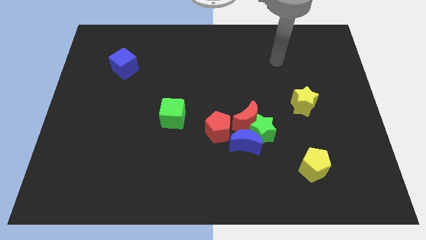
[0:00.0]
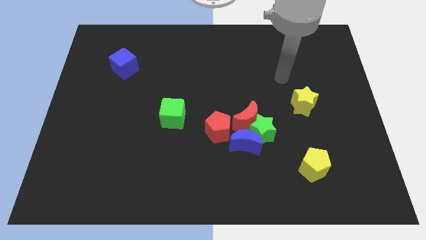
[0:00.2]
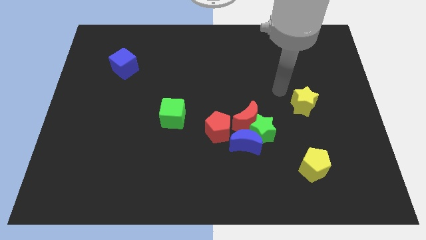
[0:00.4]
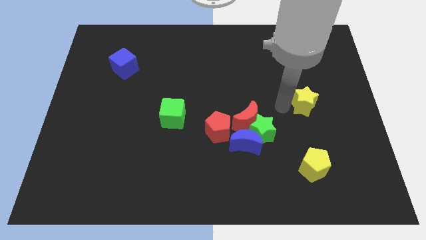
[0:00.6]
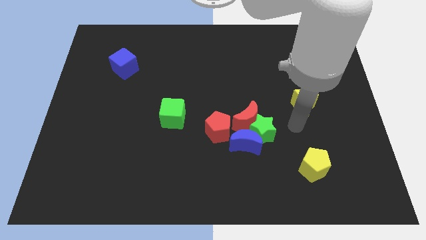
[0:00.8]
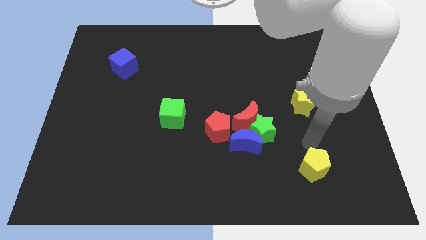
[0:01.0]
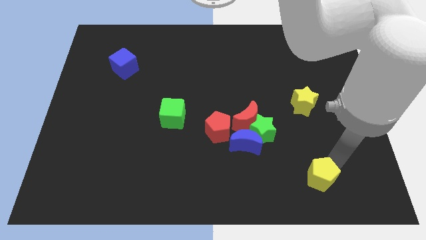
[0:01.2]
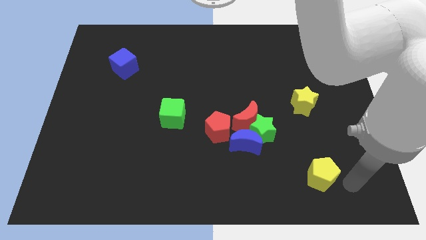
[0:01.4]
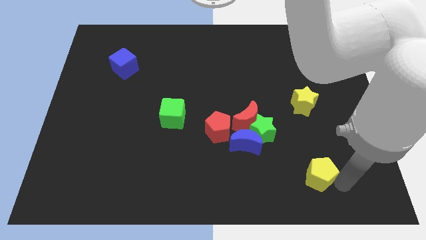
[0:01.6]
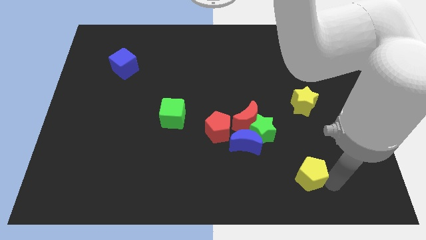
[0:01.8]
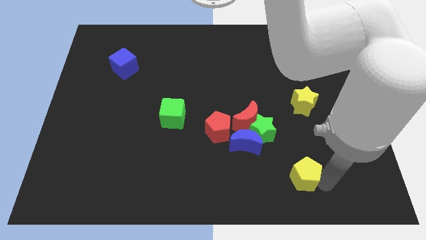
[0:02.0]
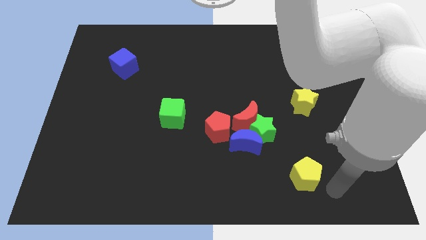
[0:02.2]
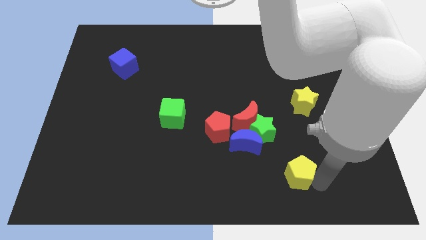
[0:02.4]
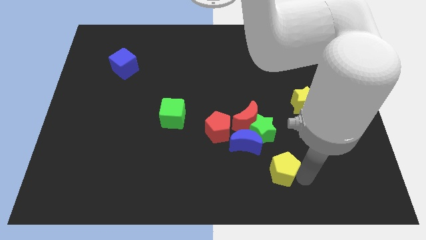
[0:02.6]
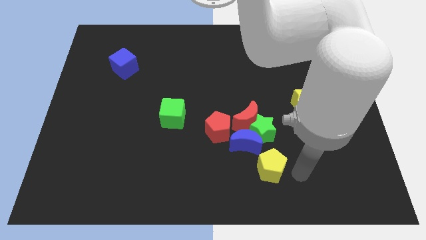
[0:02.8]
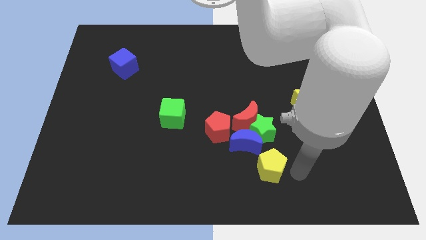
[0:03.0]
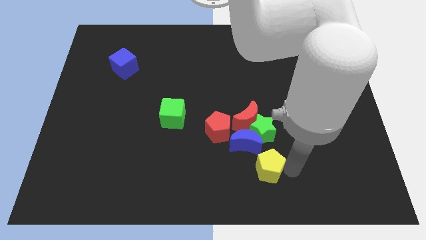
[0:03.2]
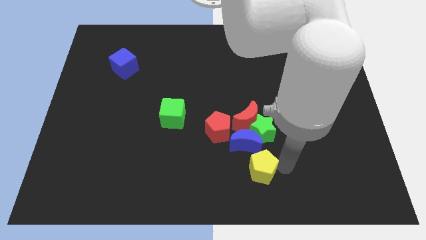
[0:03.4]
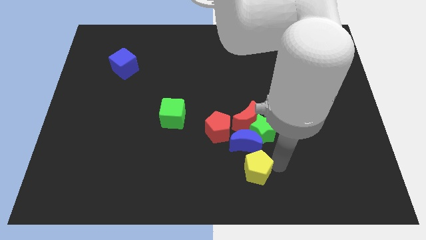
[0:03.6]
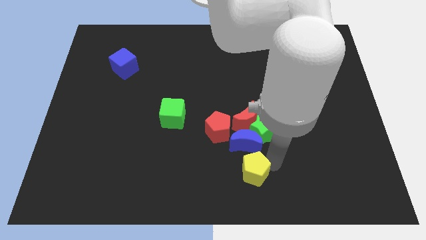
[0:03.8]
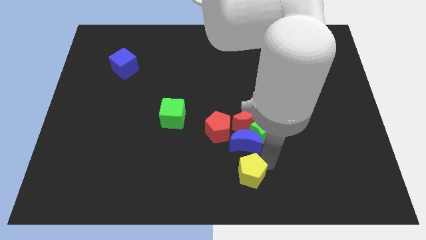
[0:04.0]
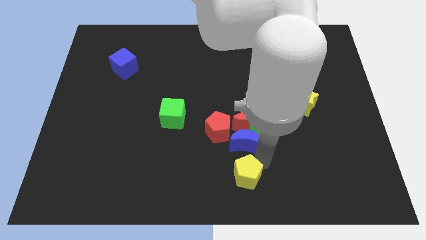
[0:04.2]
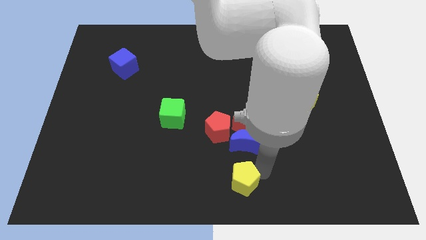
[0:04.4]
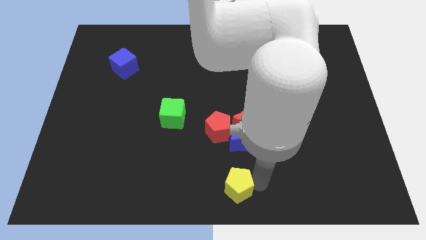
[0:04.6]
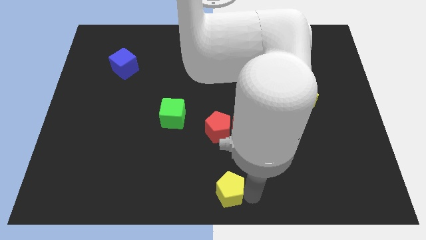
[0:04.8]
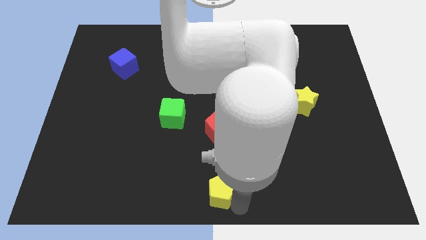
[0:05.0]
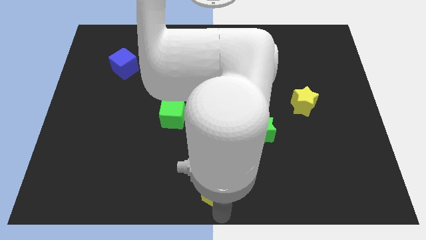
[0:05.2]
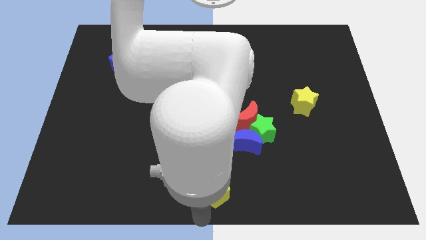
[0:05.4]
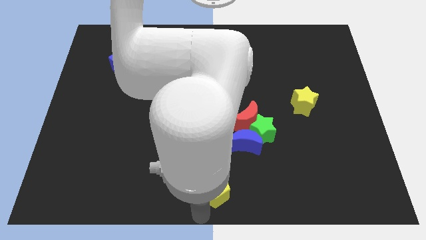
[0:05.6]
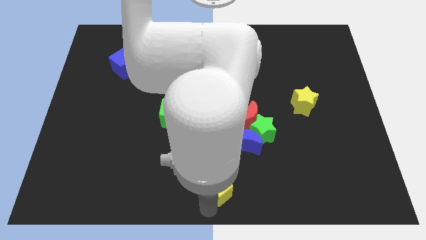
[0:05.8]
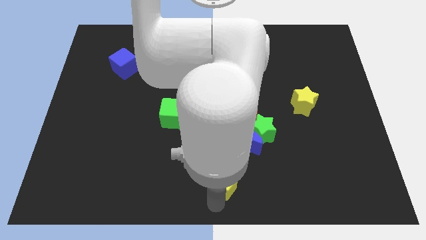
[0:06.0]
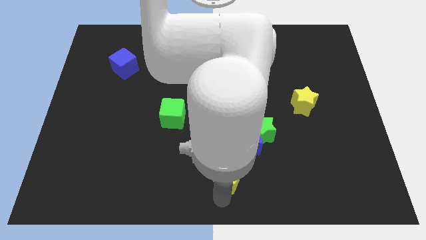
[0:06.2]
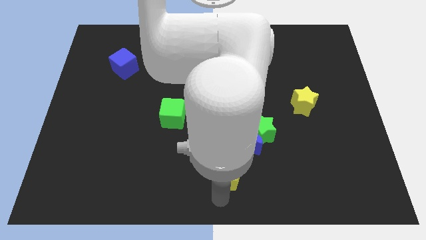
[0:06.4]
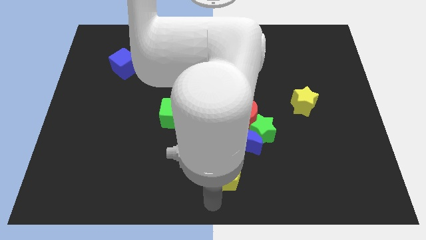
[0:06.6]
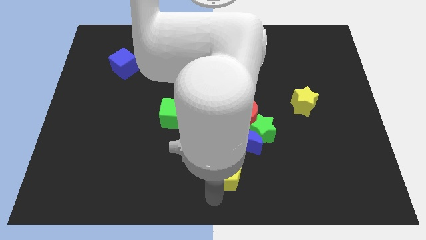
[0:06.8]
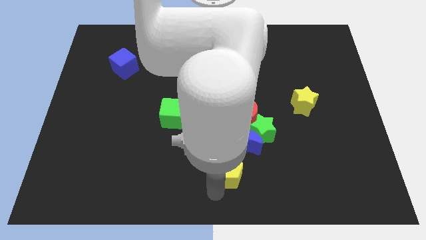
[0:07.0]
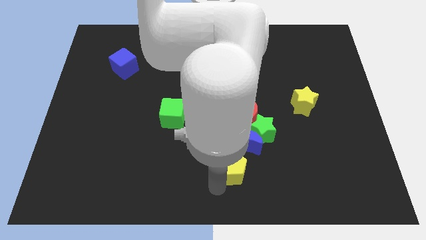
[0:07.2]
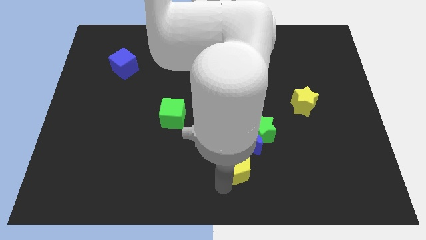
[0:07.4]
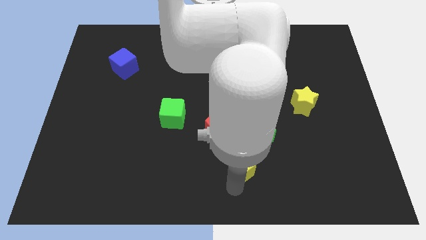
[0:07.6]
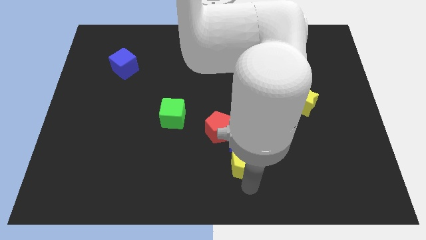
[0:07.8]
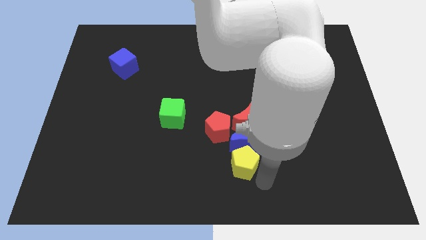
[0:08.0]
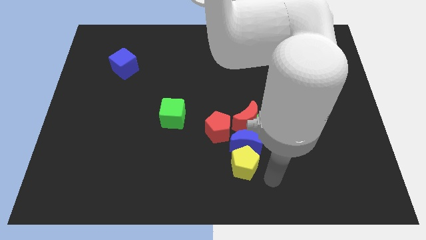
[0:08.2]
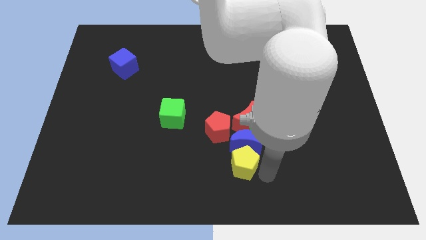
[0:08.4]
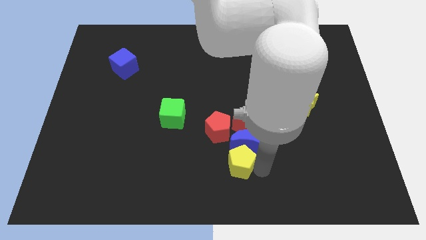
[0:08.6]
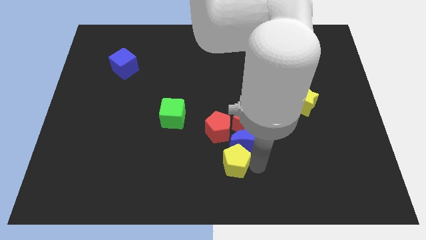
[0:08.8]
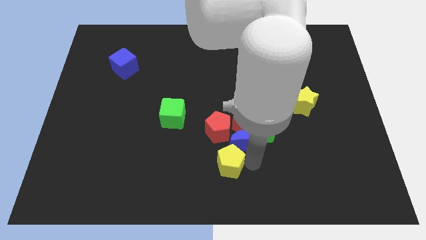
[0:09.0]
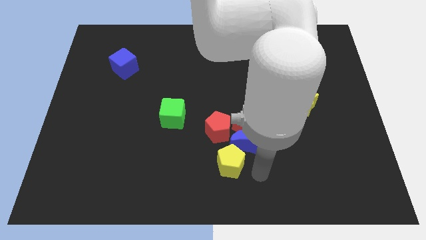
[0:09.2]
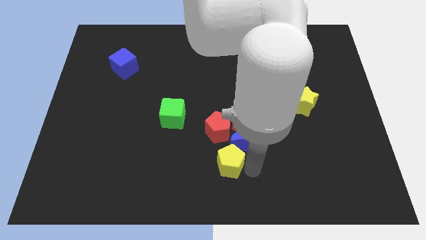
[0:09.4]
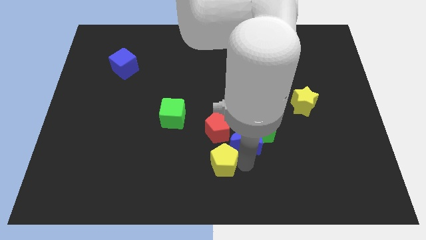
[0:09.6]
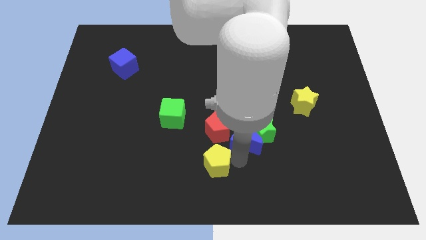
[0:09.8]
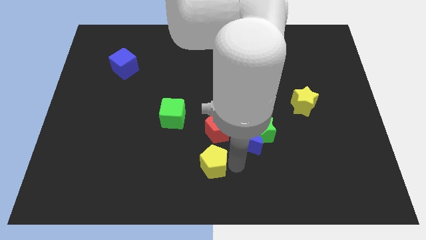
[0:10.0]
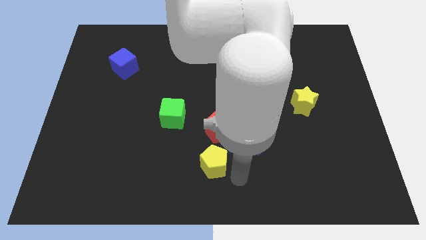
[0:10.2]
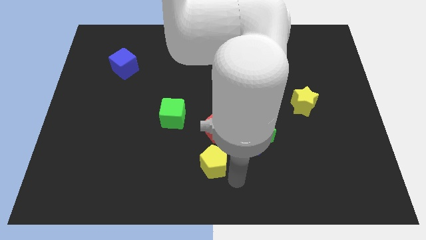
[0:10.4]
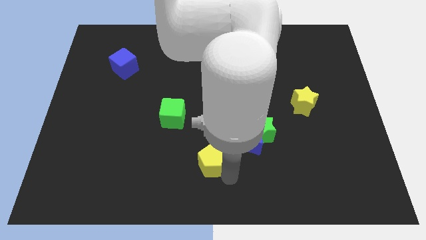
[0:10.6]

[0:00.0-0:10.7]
move the yellow pentagon to the bottom left of the red pentagon

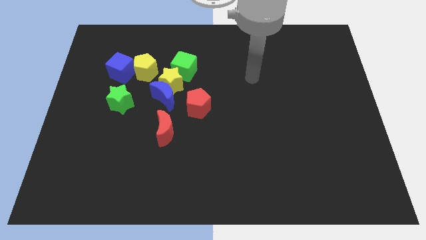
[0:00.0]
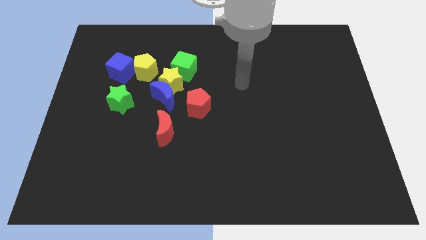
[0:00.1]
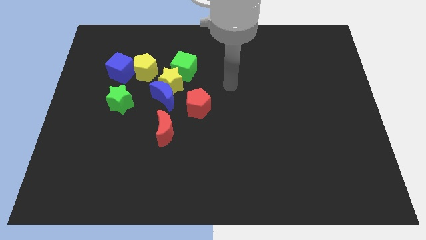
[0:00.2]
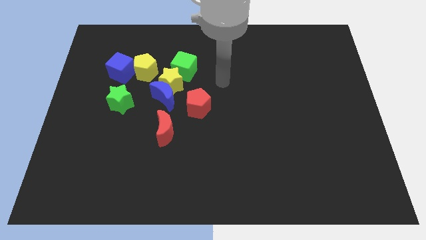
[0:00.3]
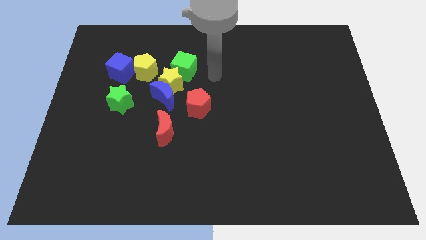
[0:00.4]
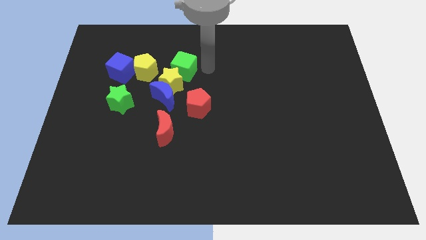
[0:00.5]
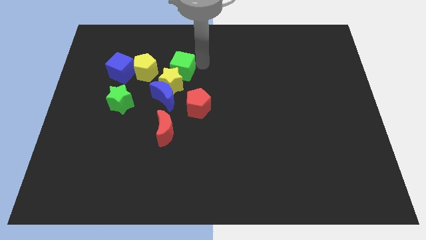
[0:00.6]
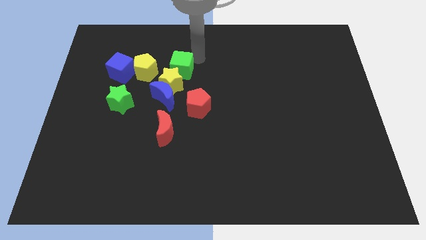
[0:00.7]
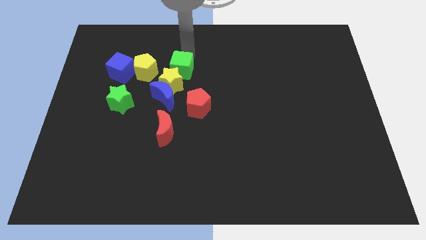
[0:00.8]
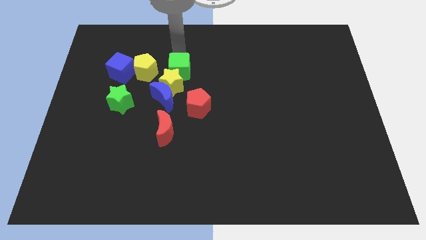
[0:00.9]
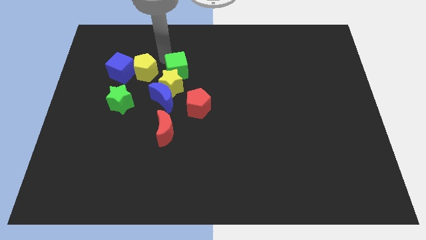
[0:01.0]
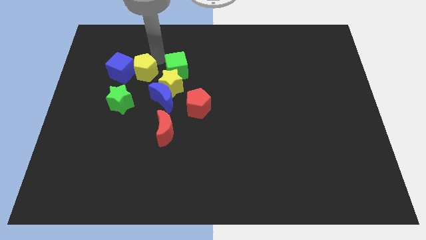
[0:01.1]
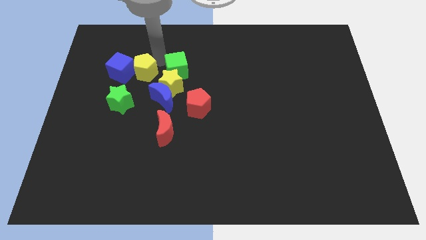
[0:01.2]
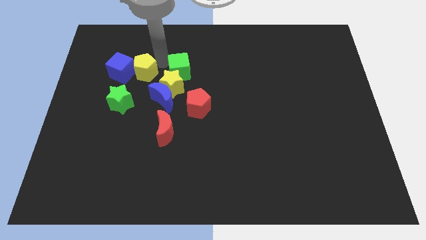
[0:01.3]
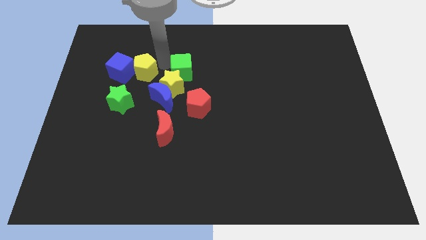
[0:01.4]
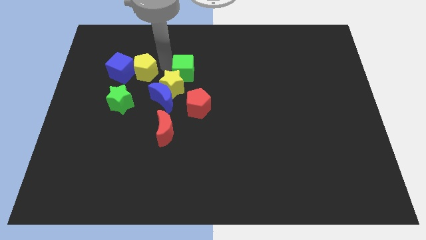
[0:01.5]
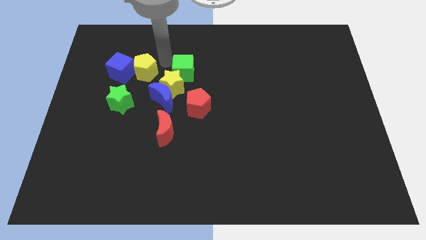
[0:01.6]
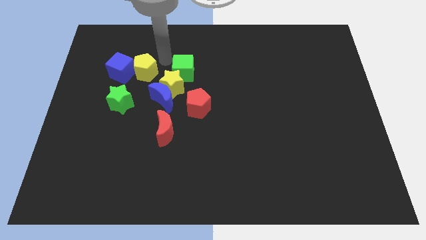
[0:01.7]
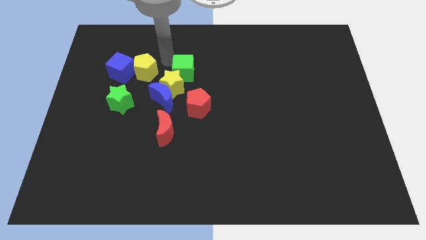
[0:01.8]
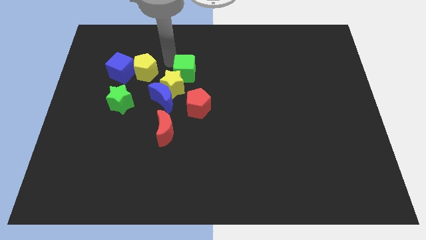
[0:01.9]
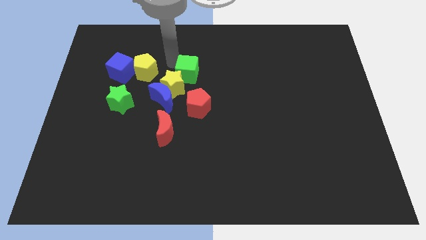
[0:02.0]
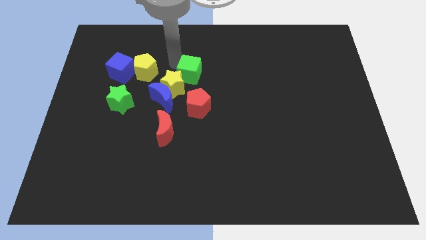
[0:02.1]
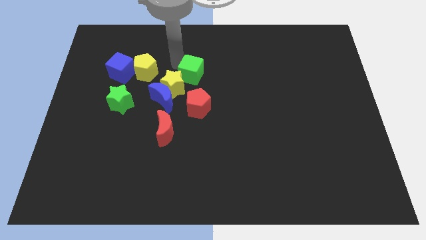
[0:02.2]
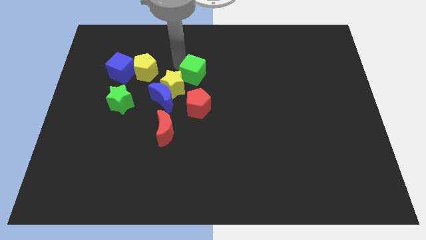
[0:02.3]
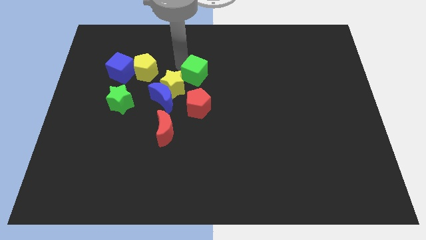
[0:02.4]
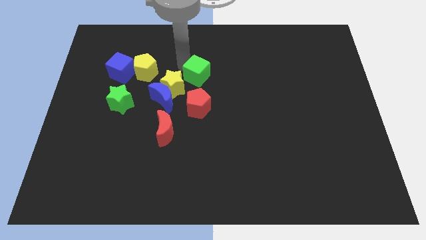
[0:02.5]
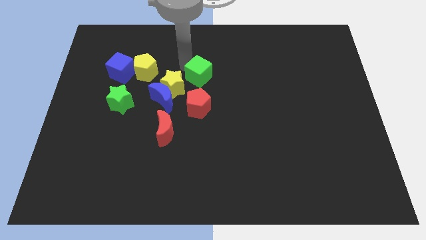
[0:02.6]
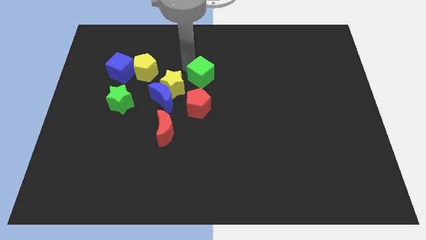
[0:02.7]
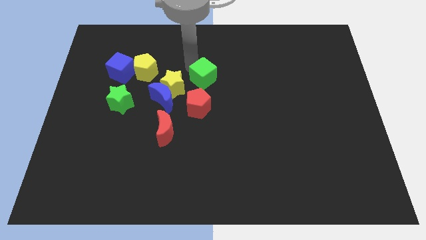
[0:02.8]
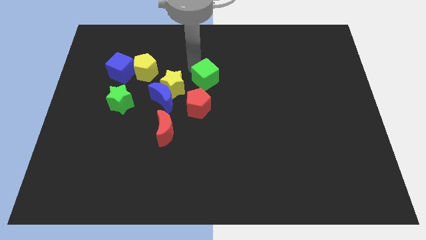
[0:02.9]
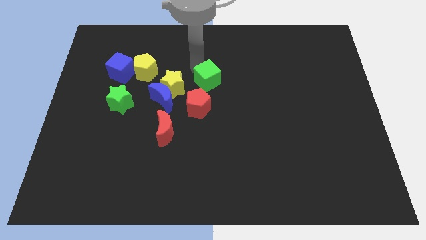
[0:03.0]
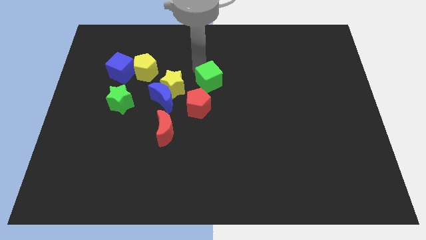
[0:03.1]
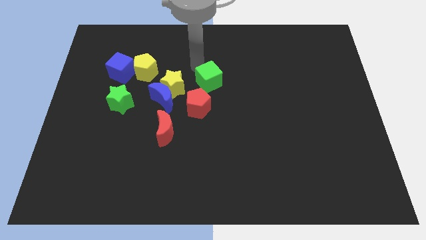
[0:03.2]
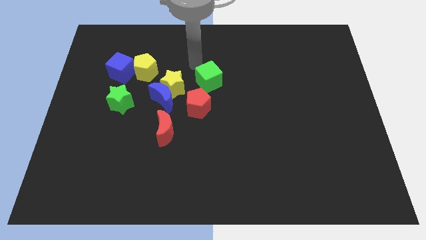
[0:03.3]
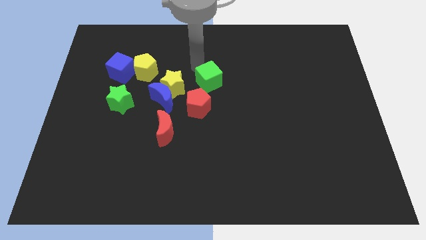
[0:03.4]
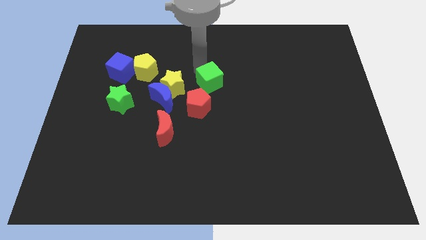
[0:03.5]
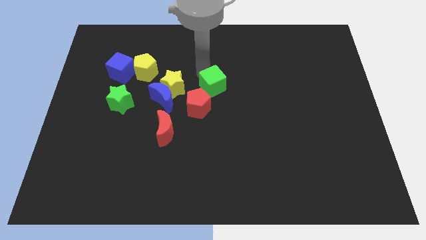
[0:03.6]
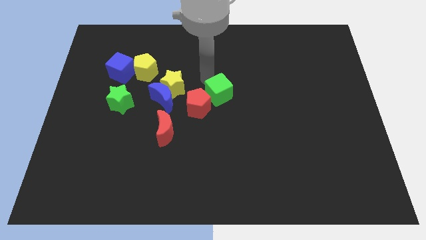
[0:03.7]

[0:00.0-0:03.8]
slide the green cube to the right side of the red pentagon
